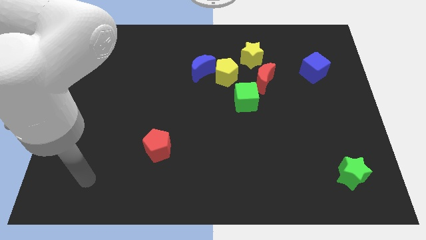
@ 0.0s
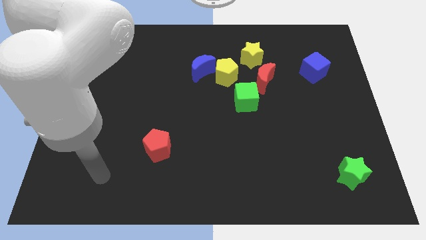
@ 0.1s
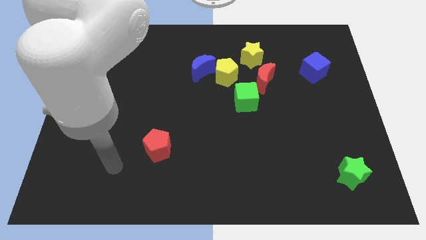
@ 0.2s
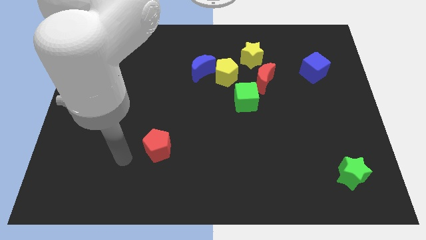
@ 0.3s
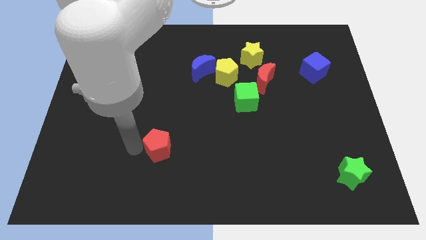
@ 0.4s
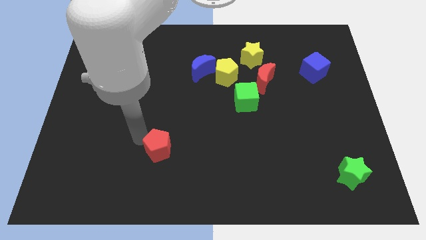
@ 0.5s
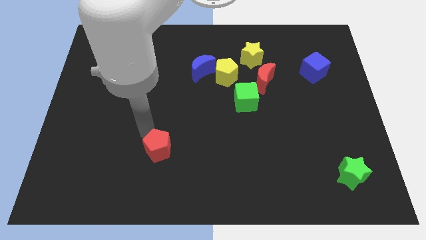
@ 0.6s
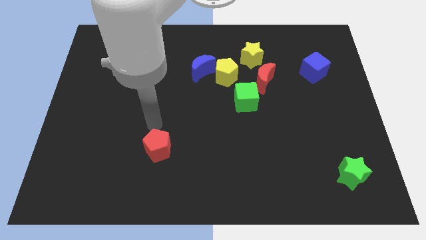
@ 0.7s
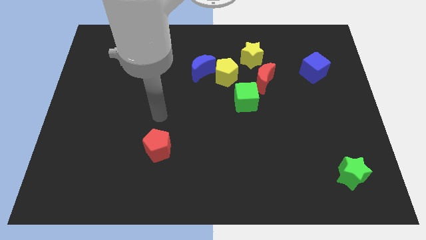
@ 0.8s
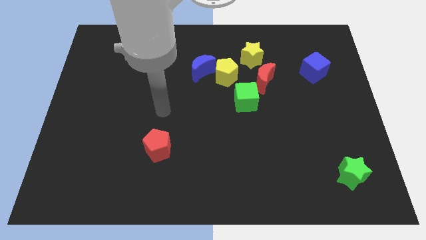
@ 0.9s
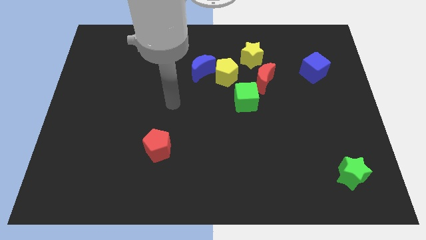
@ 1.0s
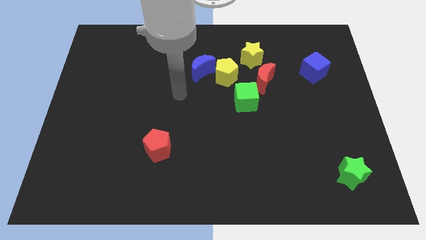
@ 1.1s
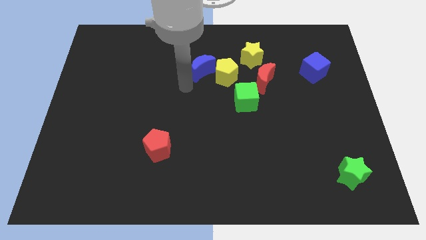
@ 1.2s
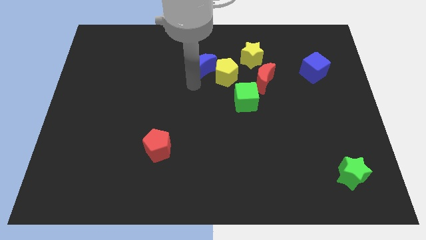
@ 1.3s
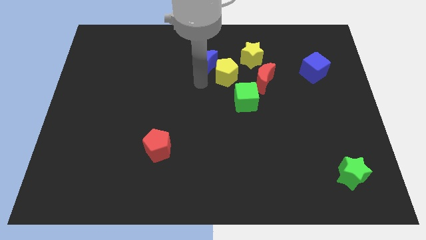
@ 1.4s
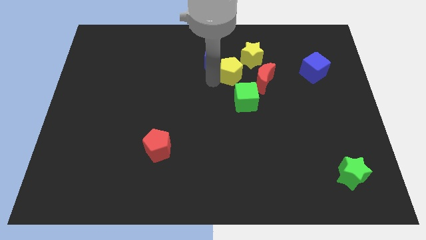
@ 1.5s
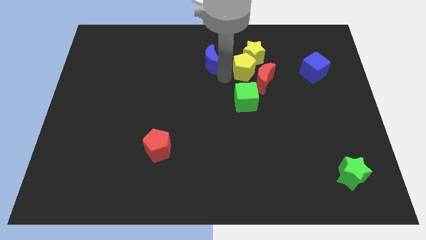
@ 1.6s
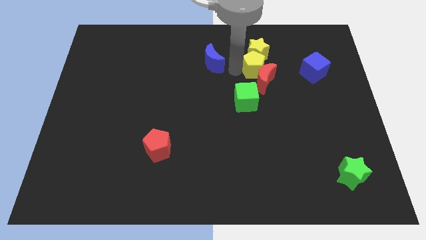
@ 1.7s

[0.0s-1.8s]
move the blue moon away from the yellow pentagon

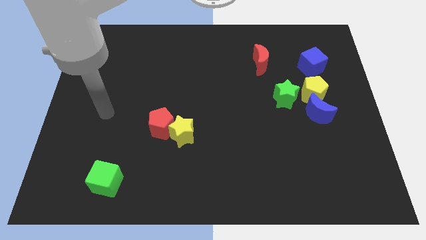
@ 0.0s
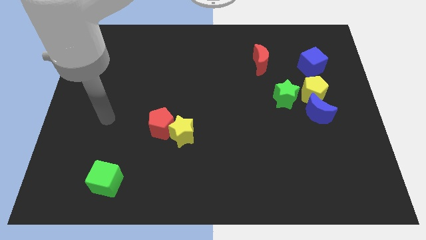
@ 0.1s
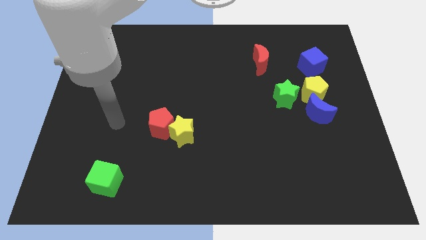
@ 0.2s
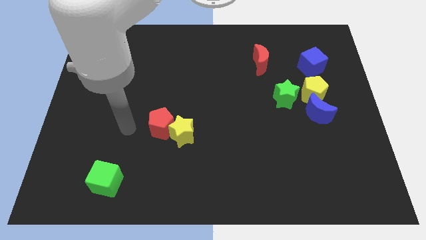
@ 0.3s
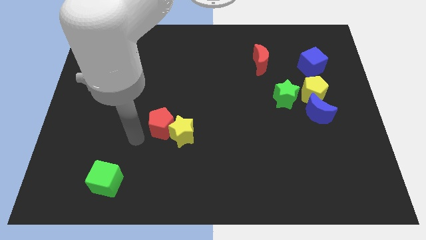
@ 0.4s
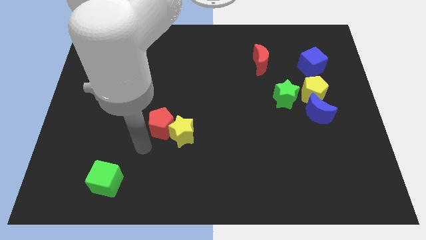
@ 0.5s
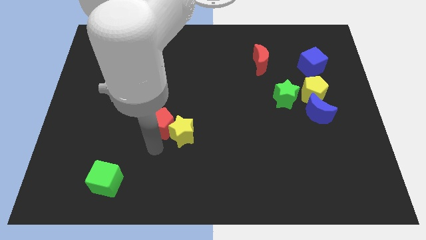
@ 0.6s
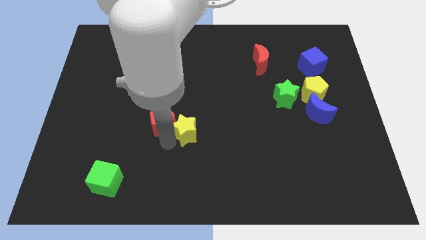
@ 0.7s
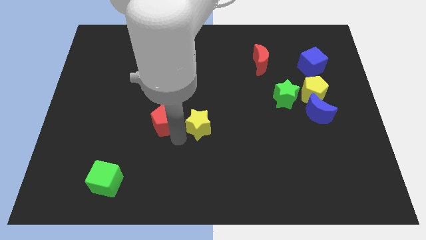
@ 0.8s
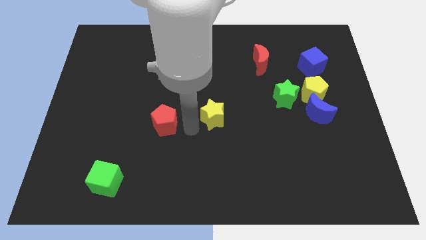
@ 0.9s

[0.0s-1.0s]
move the red pentagon away from the yellow star

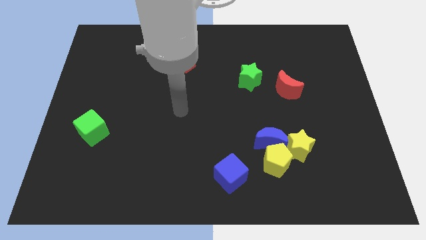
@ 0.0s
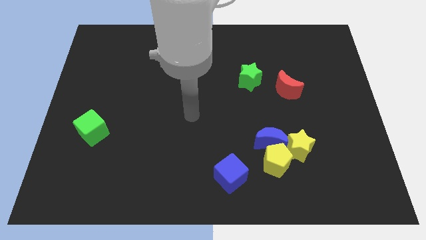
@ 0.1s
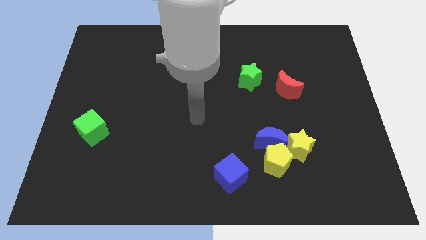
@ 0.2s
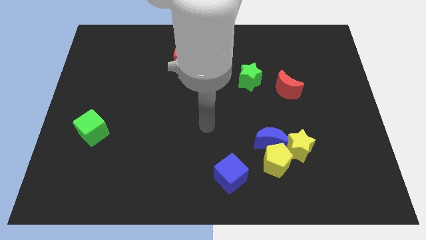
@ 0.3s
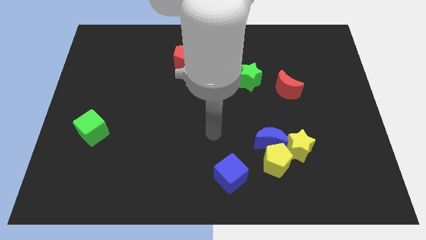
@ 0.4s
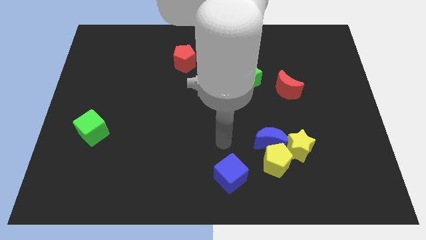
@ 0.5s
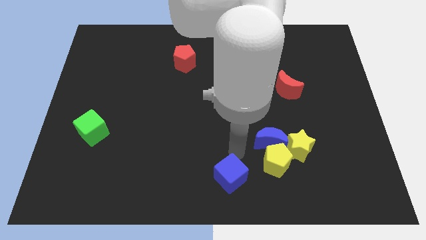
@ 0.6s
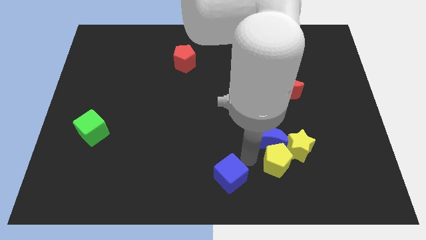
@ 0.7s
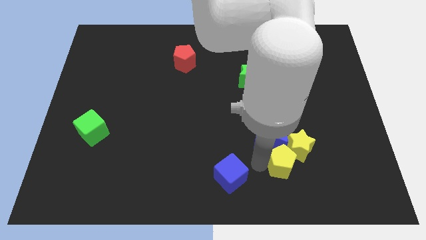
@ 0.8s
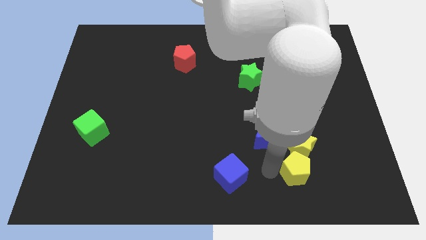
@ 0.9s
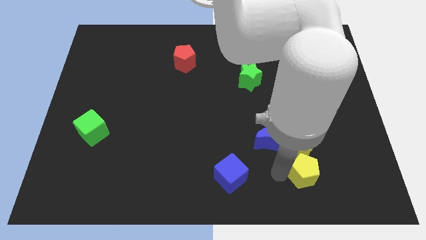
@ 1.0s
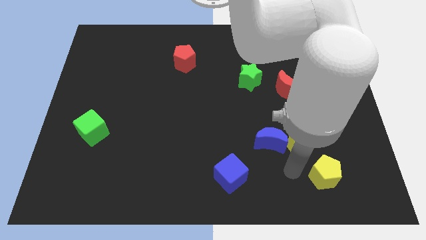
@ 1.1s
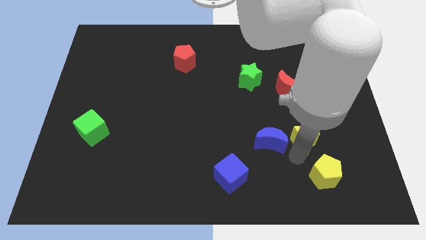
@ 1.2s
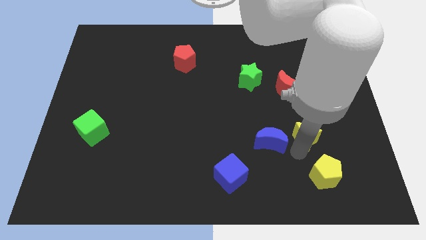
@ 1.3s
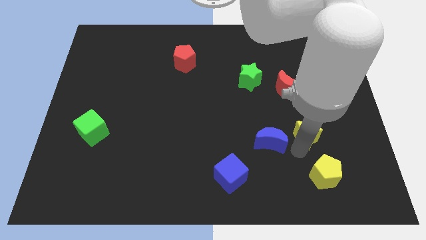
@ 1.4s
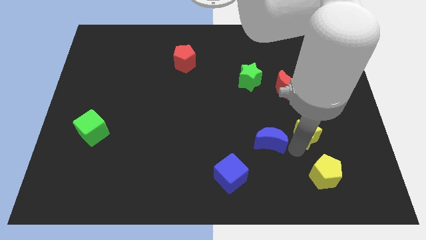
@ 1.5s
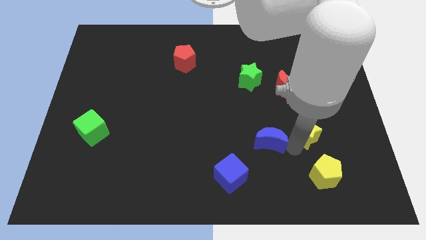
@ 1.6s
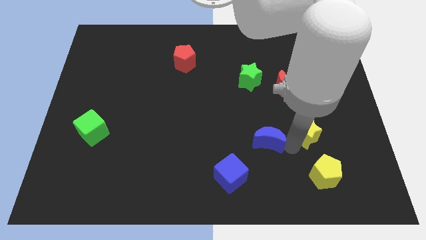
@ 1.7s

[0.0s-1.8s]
pull the blue moon apart from the yellow pentagon and yellow star

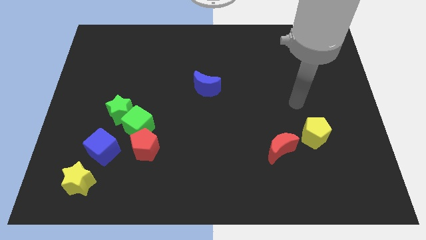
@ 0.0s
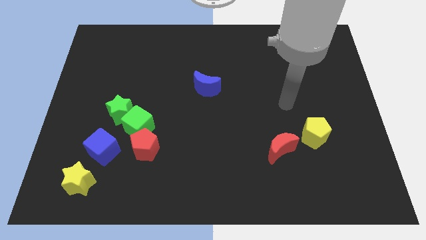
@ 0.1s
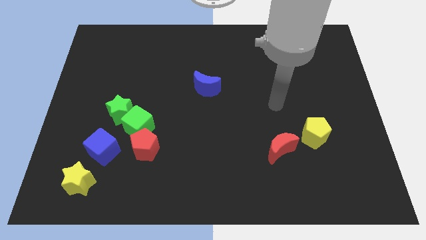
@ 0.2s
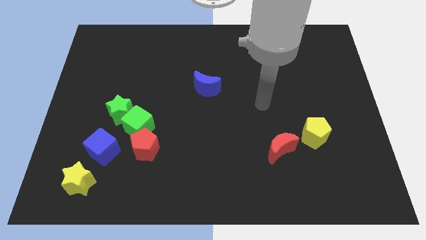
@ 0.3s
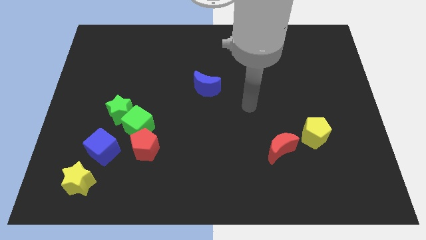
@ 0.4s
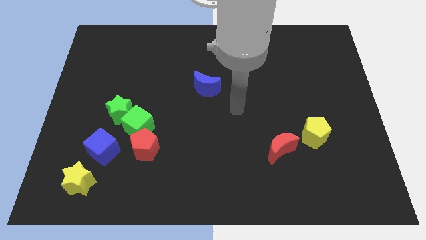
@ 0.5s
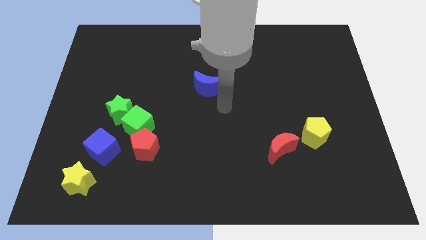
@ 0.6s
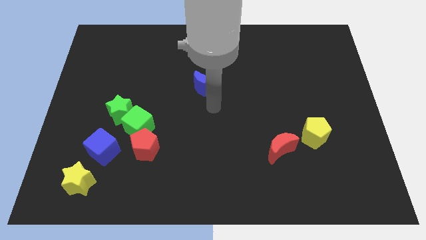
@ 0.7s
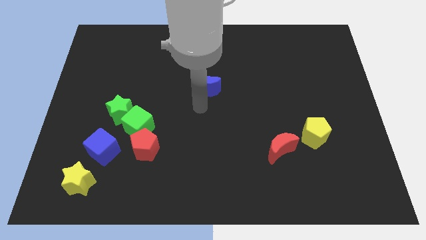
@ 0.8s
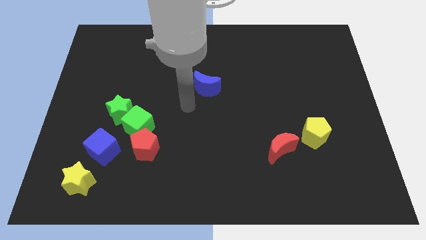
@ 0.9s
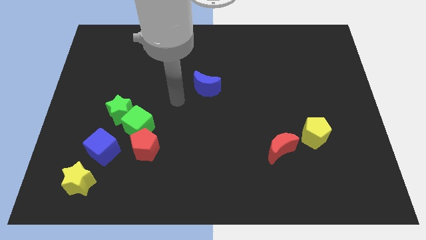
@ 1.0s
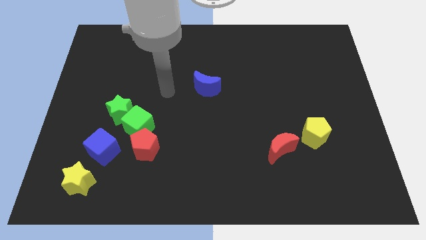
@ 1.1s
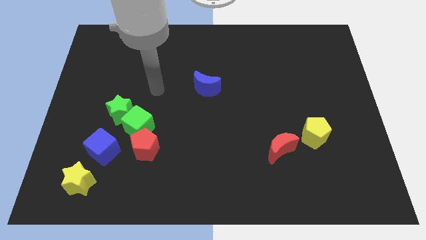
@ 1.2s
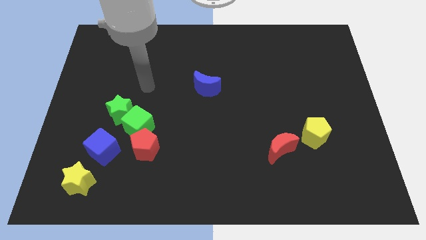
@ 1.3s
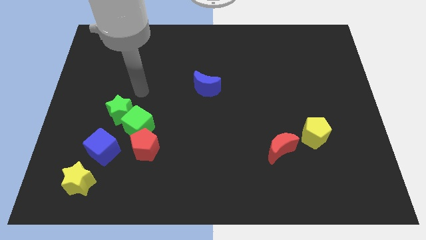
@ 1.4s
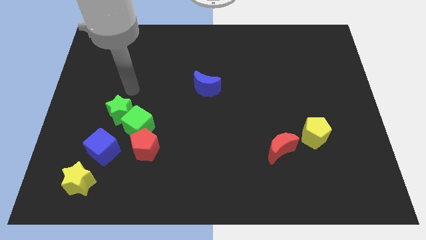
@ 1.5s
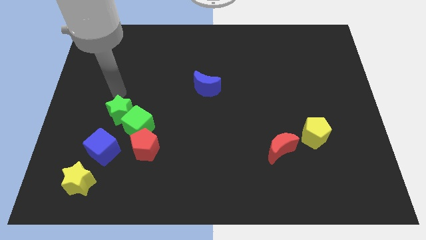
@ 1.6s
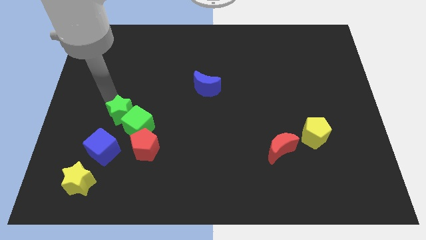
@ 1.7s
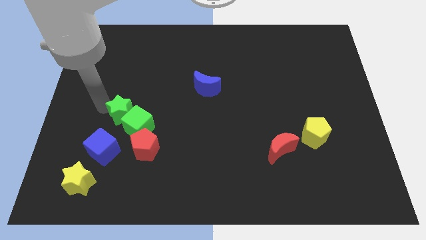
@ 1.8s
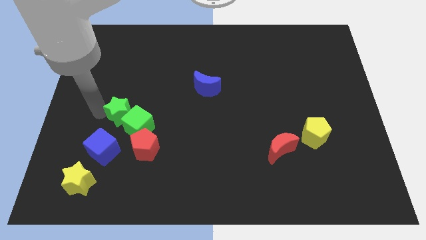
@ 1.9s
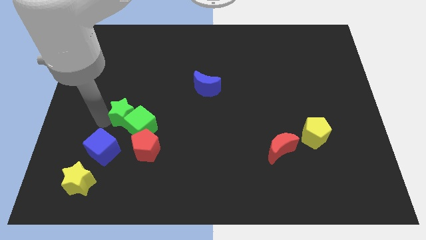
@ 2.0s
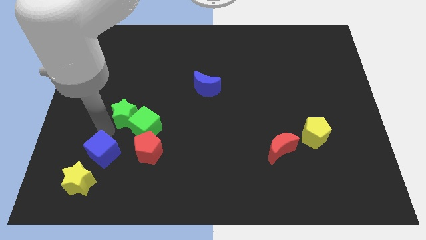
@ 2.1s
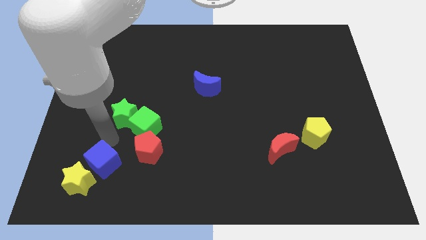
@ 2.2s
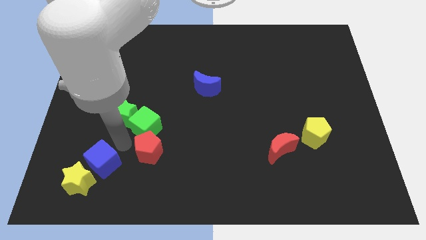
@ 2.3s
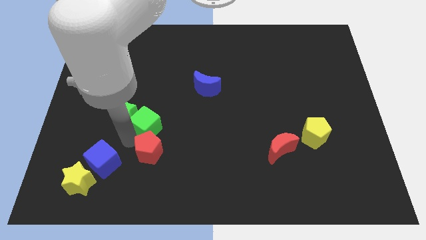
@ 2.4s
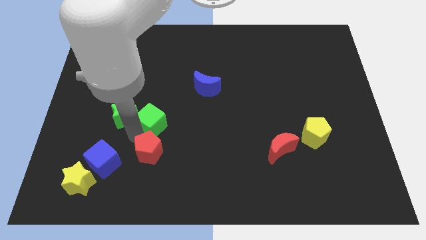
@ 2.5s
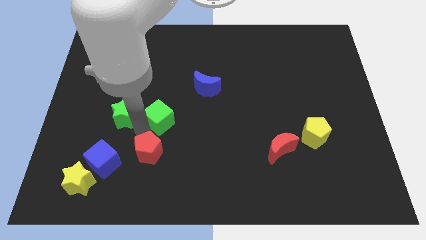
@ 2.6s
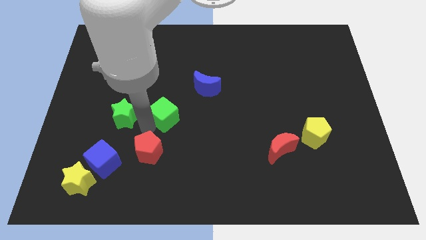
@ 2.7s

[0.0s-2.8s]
move the green cube away from the green star, red pentagon, and blue cube

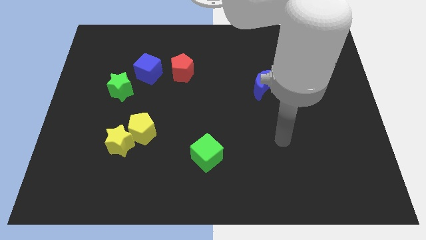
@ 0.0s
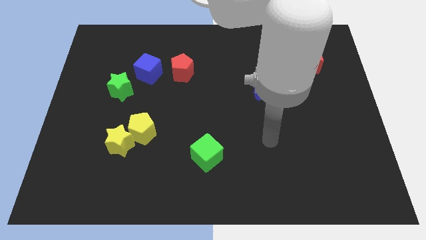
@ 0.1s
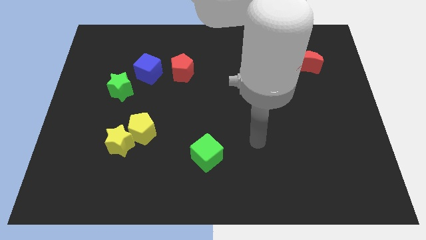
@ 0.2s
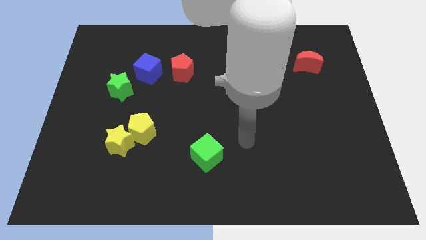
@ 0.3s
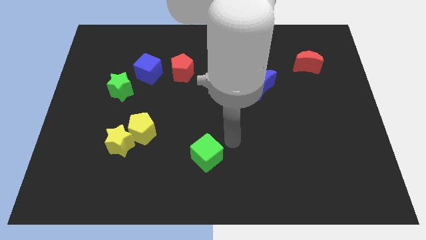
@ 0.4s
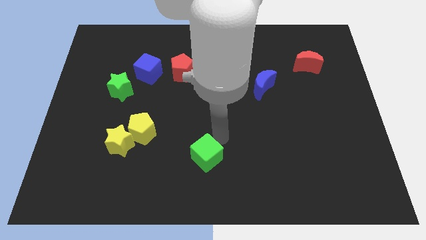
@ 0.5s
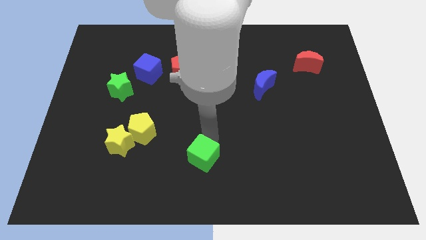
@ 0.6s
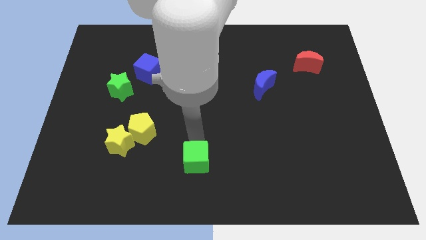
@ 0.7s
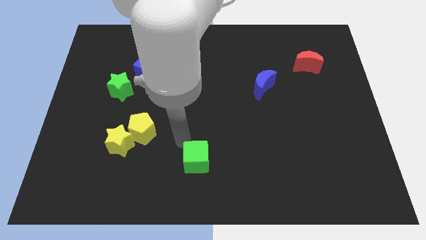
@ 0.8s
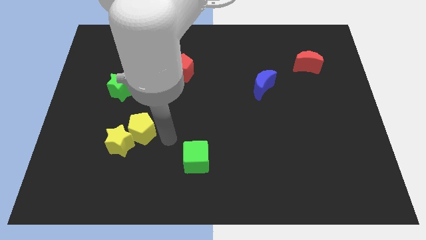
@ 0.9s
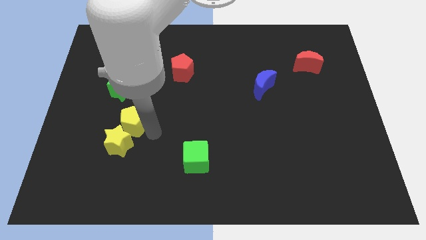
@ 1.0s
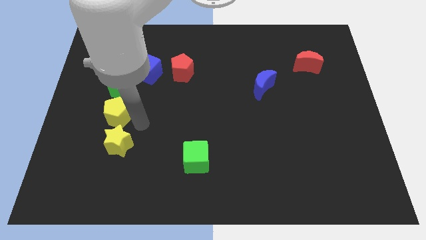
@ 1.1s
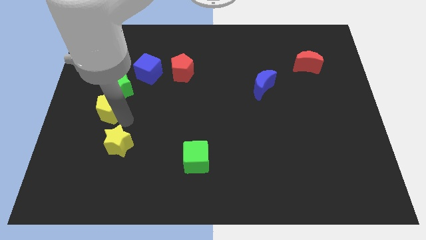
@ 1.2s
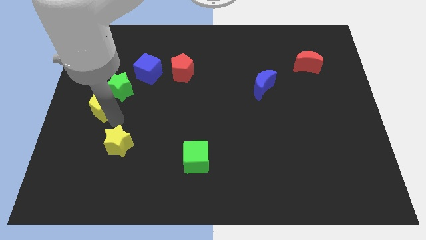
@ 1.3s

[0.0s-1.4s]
pull the yellow star apart from the yellow pentagon

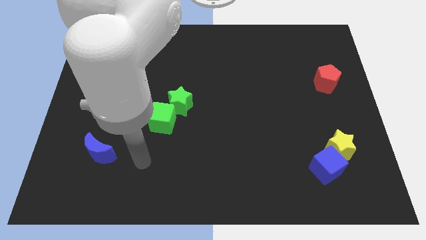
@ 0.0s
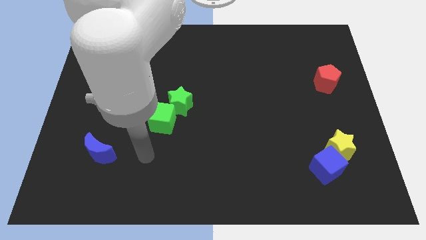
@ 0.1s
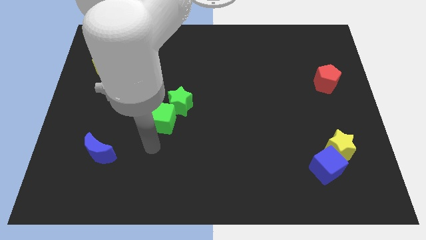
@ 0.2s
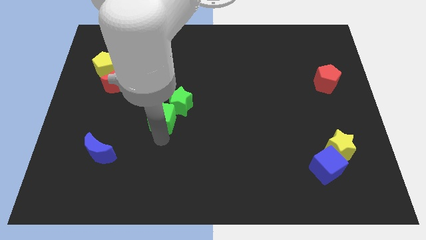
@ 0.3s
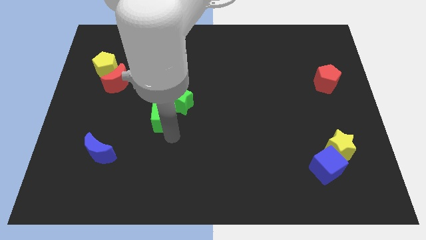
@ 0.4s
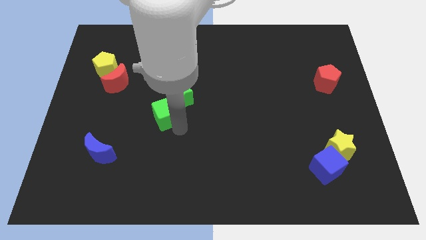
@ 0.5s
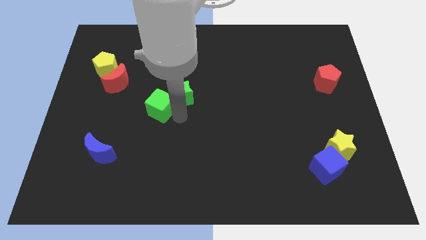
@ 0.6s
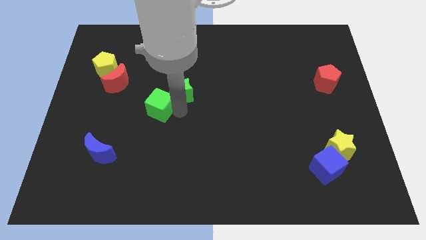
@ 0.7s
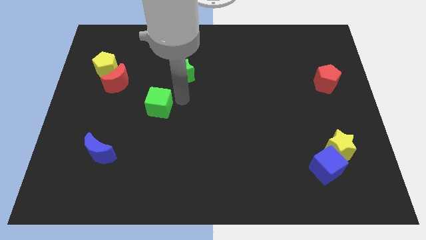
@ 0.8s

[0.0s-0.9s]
move the green cube away from the green star
